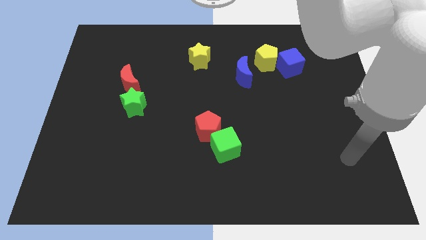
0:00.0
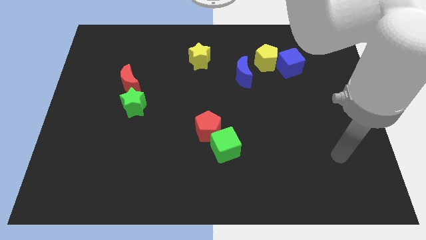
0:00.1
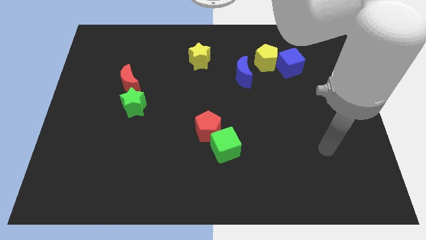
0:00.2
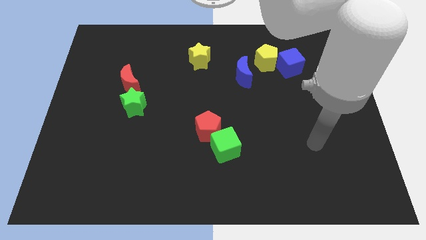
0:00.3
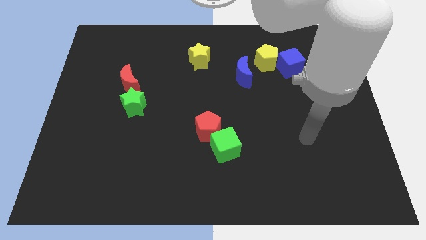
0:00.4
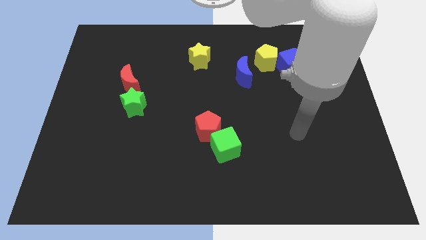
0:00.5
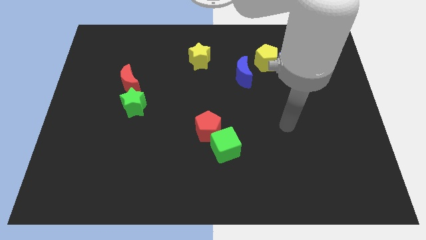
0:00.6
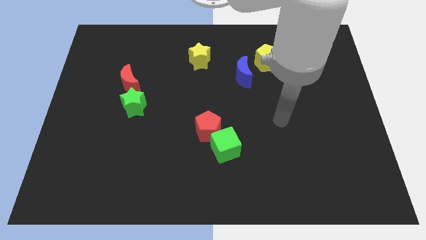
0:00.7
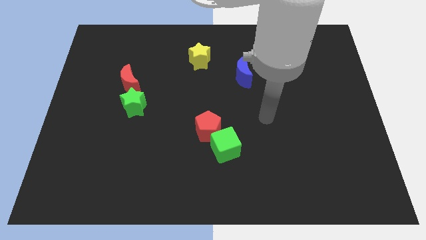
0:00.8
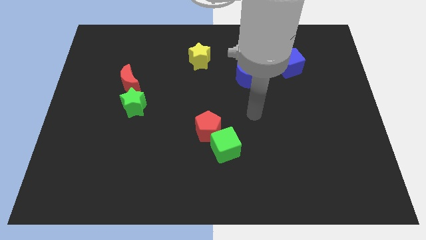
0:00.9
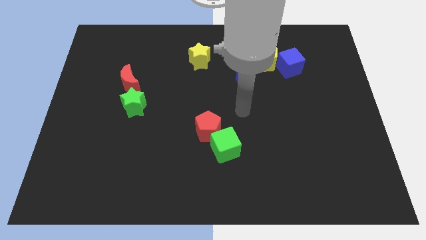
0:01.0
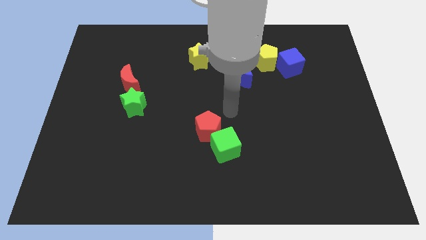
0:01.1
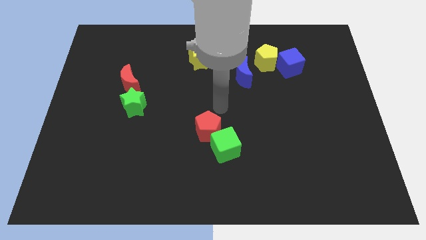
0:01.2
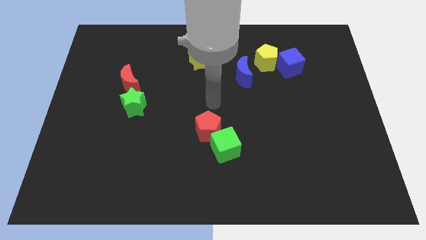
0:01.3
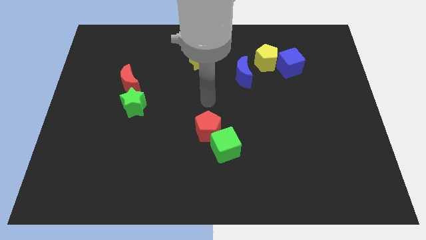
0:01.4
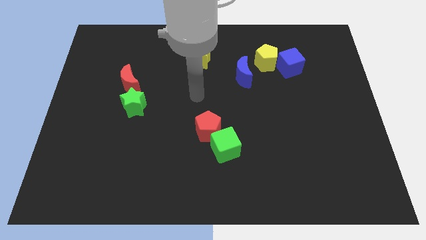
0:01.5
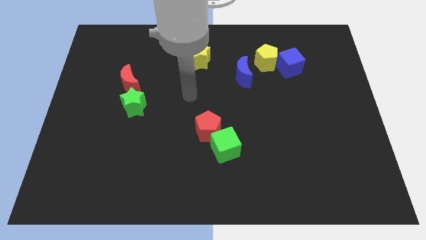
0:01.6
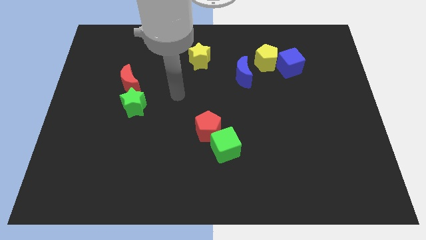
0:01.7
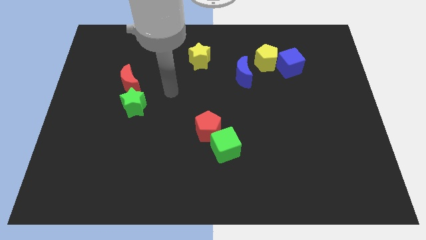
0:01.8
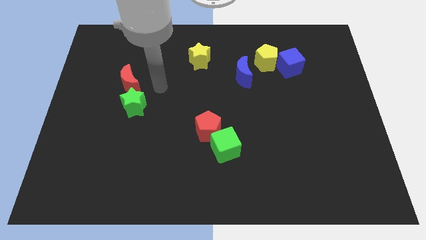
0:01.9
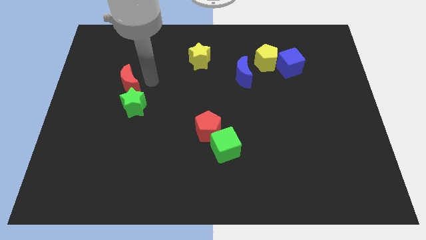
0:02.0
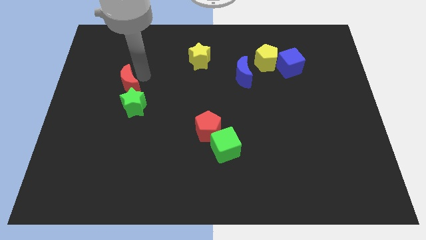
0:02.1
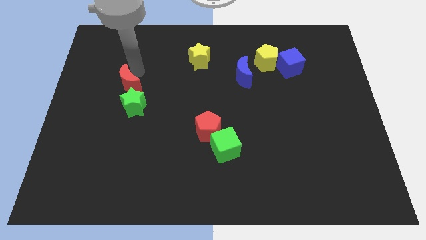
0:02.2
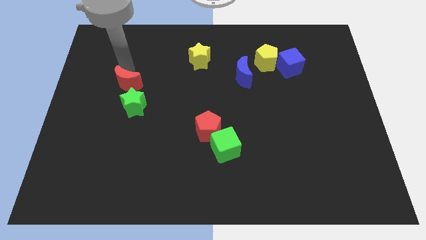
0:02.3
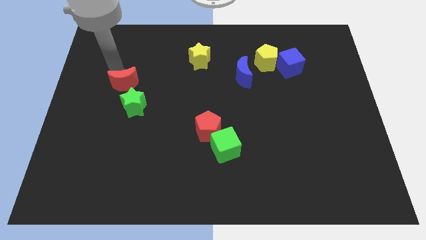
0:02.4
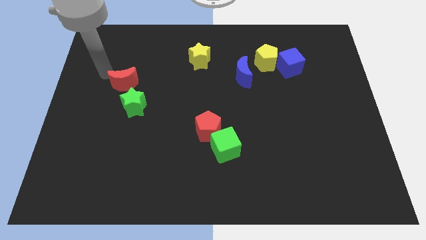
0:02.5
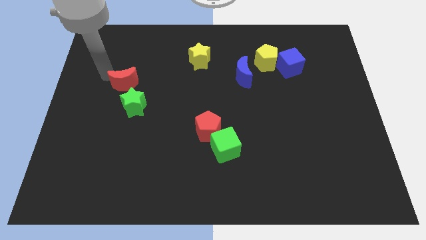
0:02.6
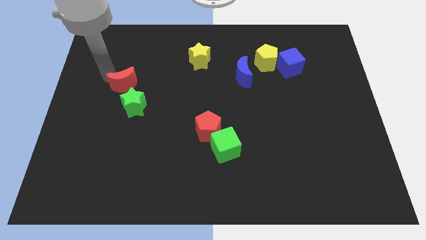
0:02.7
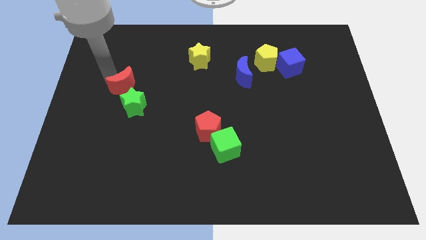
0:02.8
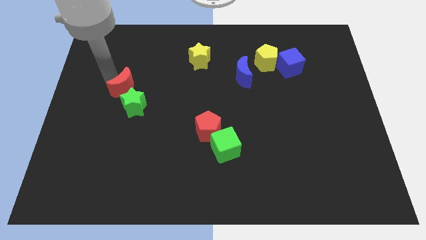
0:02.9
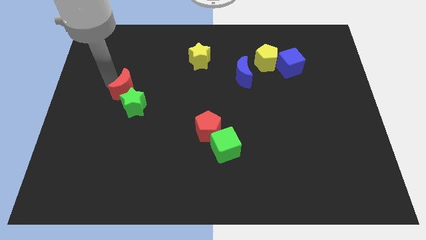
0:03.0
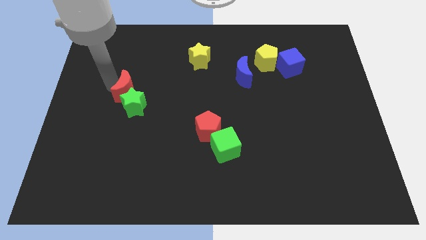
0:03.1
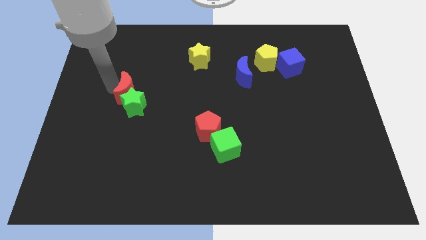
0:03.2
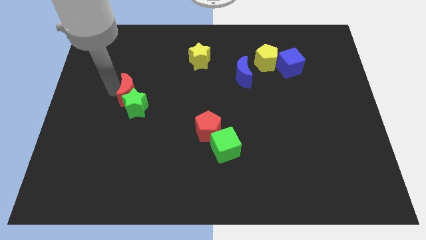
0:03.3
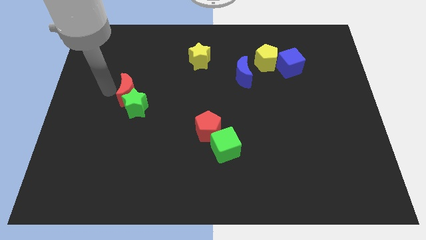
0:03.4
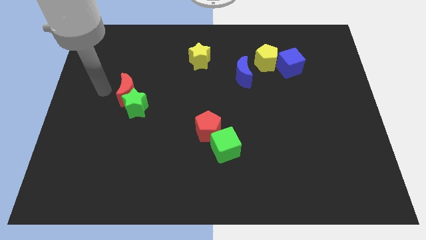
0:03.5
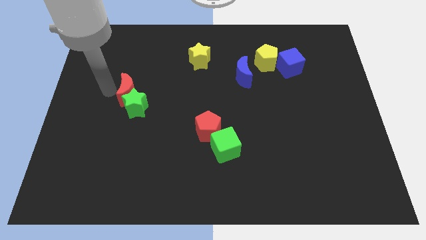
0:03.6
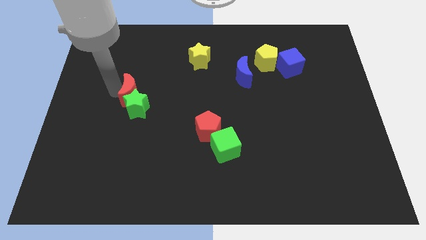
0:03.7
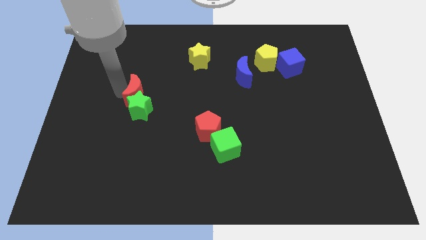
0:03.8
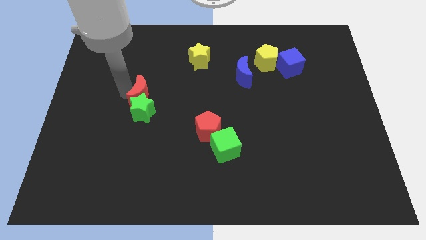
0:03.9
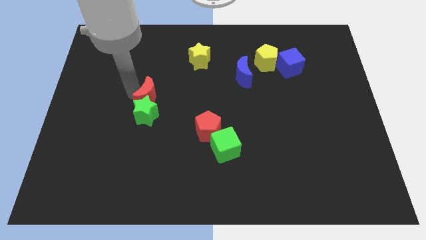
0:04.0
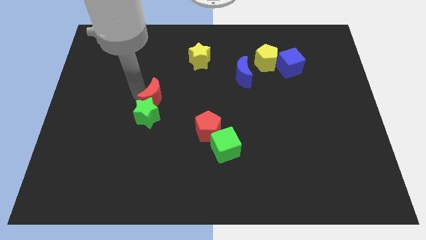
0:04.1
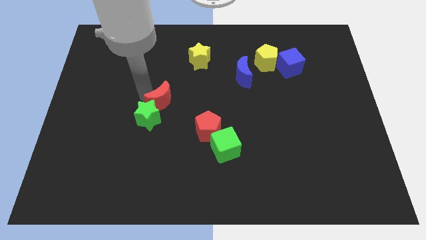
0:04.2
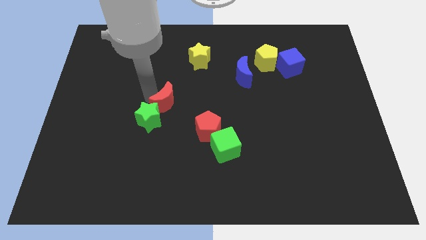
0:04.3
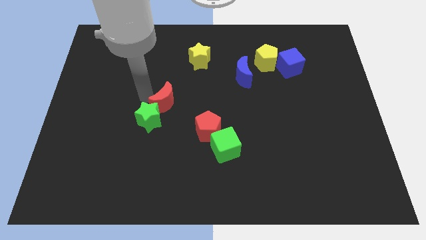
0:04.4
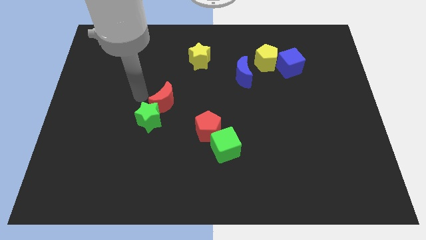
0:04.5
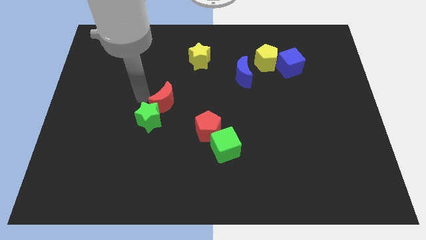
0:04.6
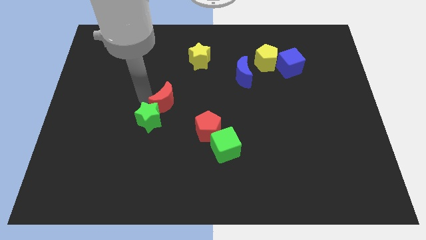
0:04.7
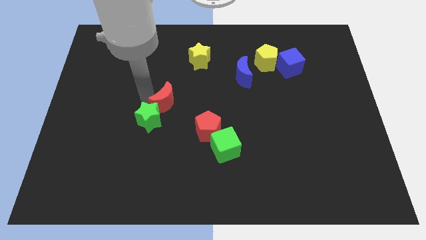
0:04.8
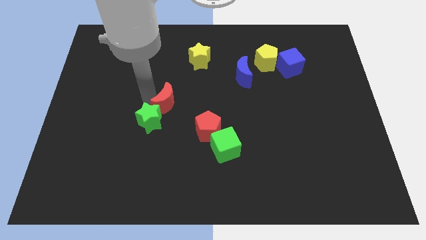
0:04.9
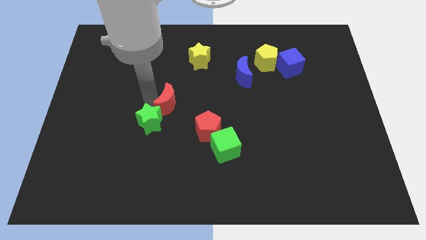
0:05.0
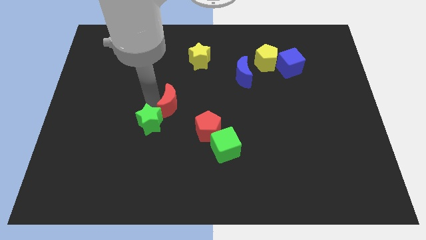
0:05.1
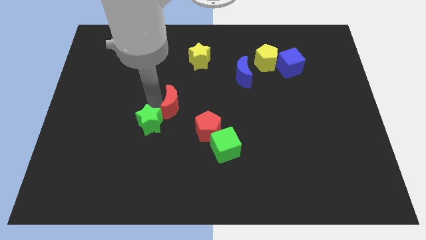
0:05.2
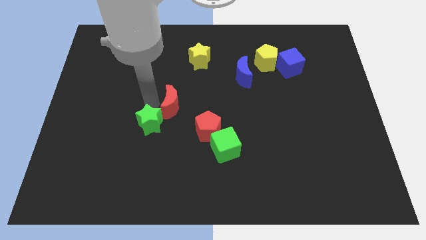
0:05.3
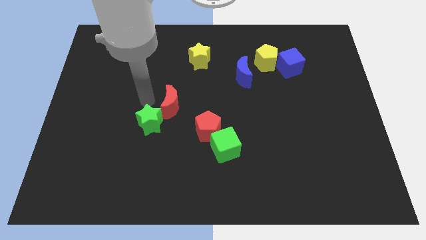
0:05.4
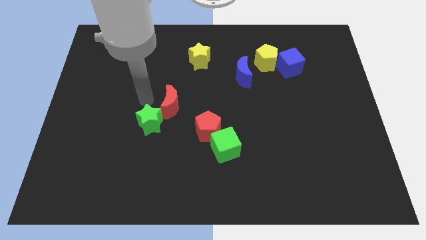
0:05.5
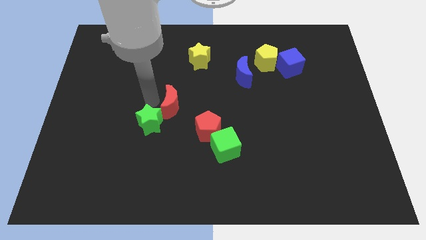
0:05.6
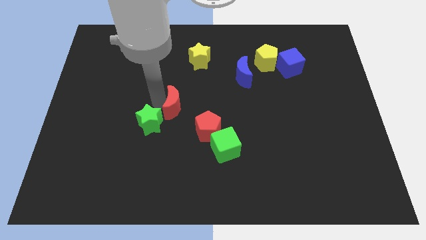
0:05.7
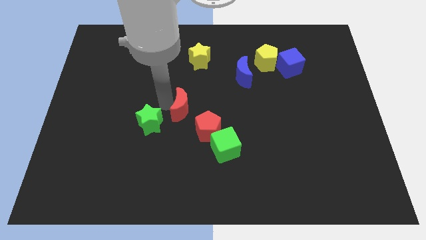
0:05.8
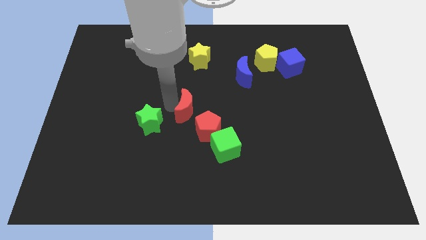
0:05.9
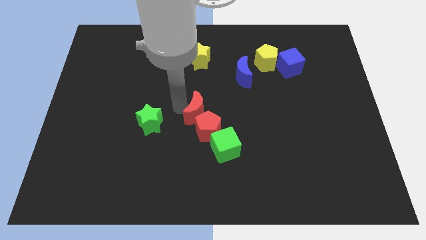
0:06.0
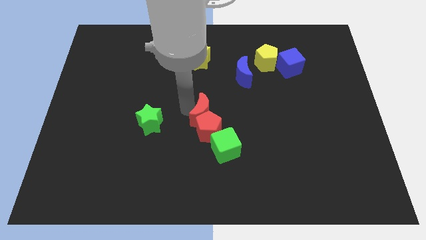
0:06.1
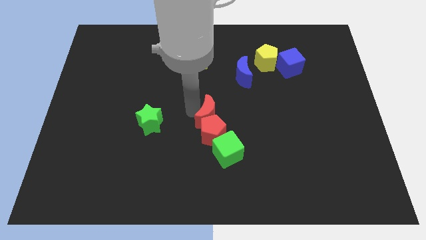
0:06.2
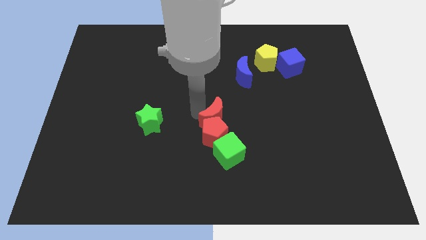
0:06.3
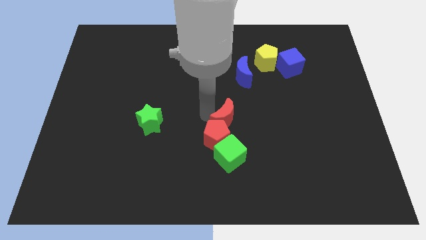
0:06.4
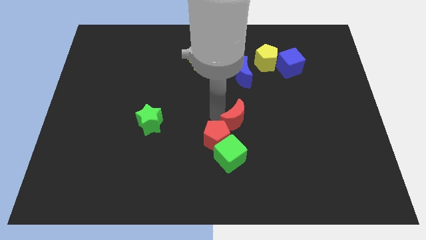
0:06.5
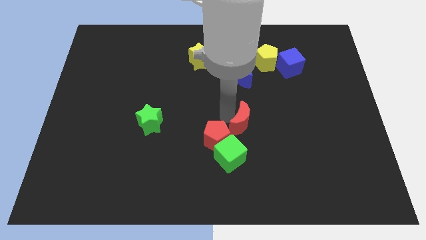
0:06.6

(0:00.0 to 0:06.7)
push the red moon to the right side of the red pentagon

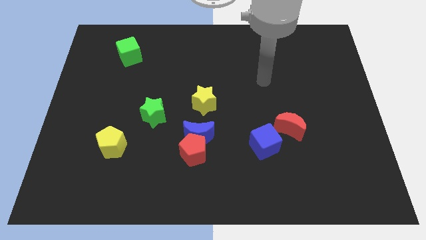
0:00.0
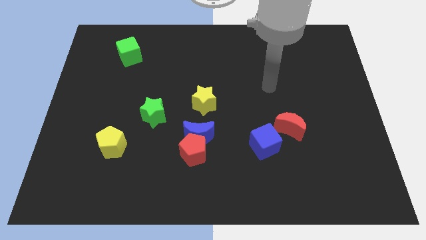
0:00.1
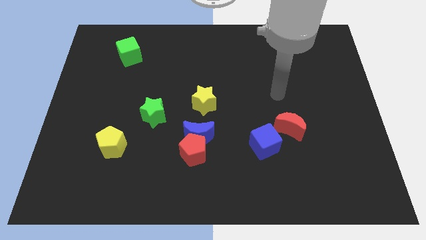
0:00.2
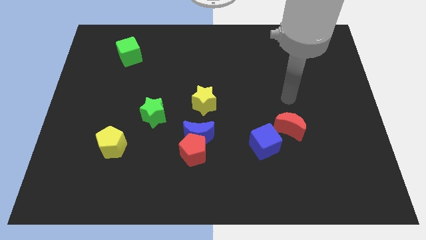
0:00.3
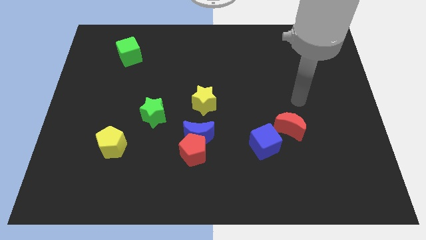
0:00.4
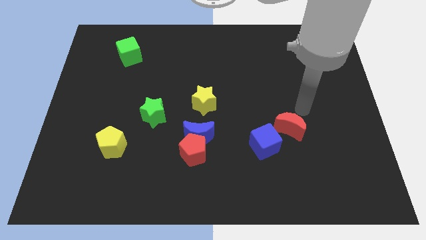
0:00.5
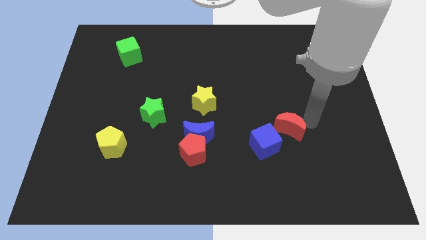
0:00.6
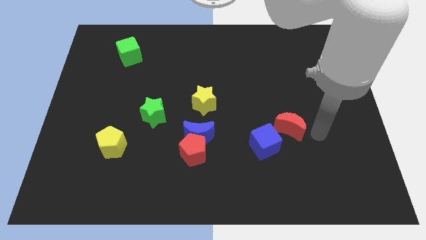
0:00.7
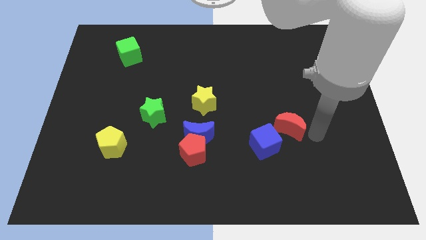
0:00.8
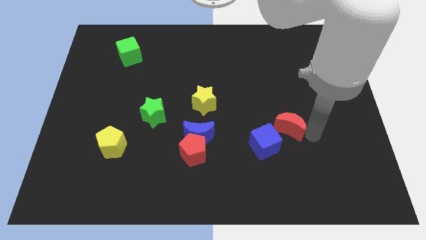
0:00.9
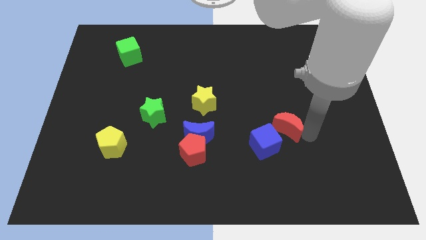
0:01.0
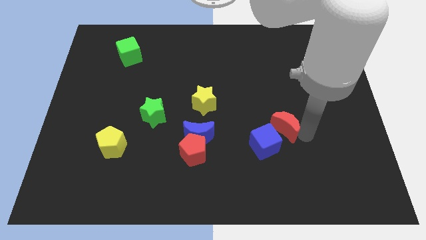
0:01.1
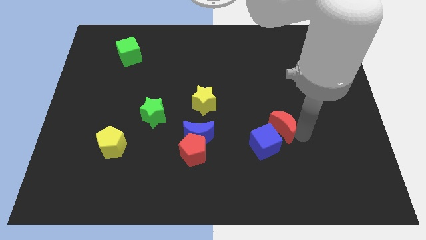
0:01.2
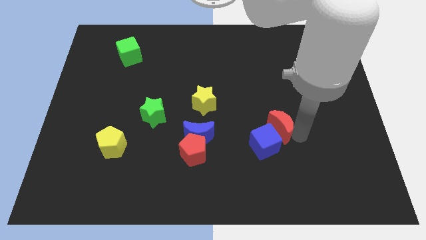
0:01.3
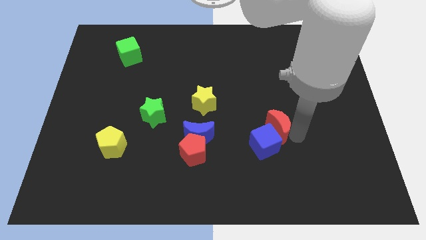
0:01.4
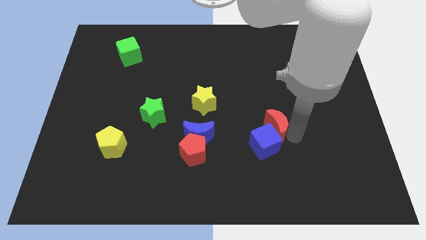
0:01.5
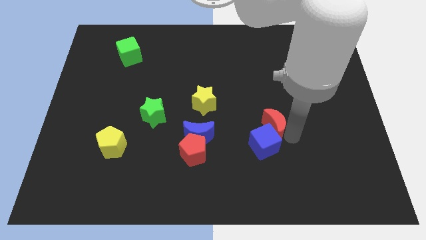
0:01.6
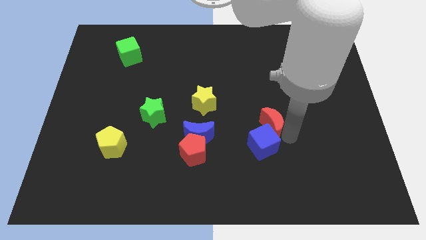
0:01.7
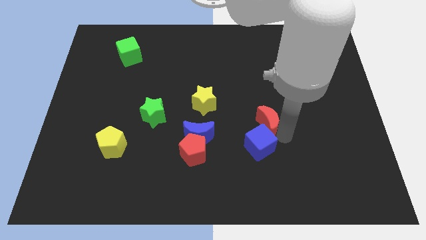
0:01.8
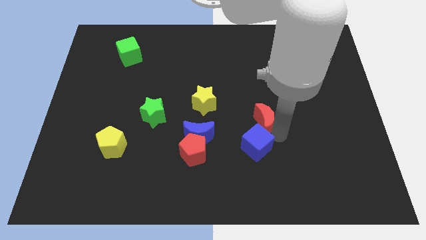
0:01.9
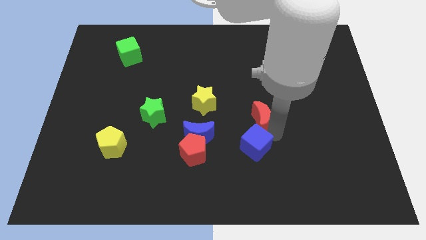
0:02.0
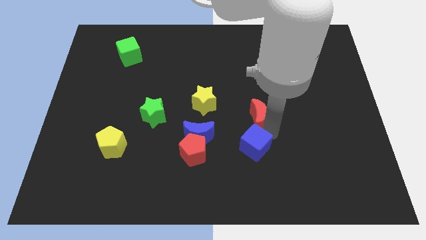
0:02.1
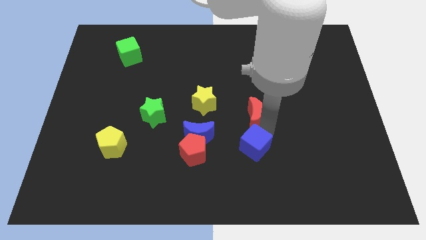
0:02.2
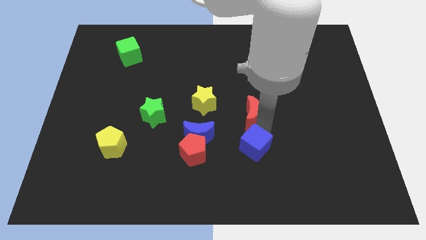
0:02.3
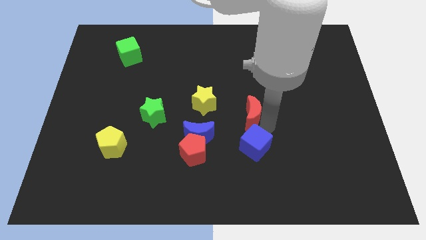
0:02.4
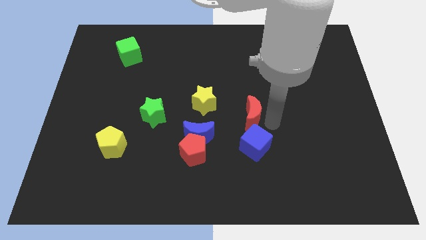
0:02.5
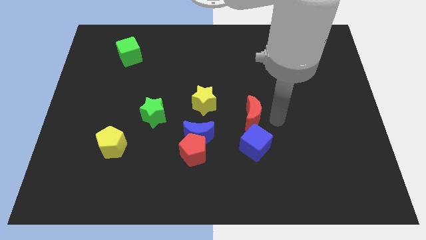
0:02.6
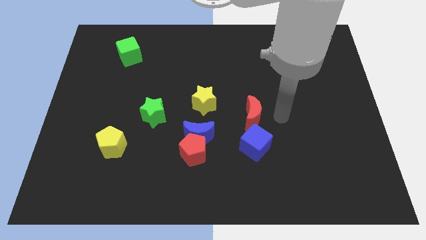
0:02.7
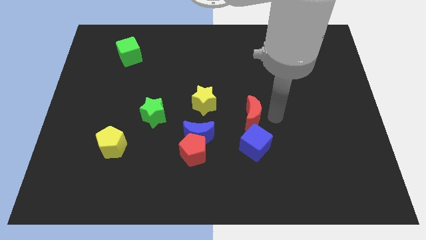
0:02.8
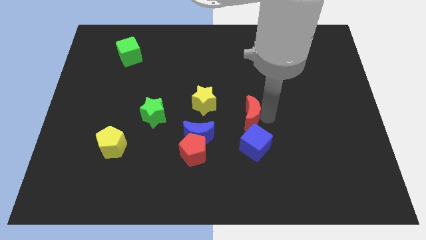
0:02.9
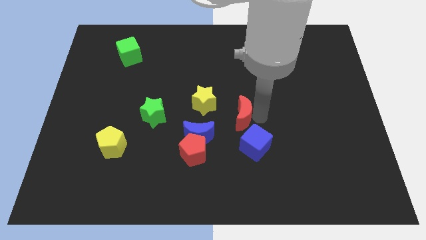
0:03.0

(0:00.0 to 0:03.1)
push the red moon diagonally up and to the right of the blue moon
